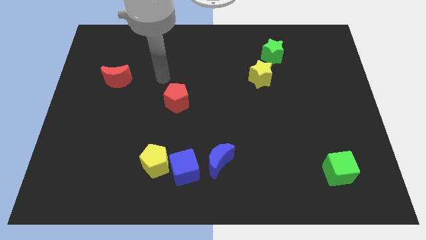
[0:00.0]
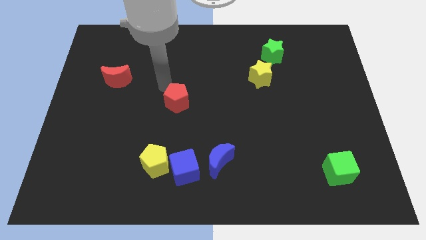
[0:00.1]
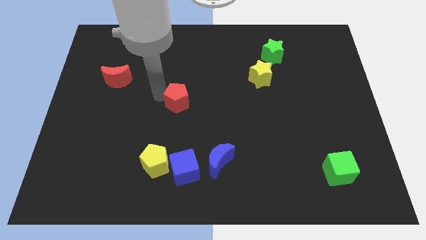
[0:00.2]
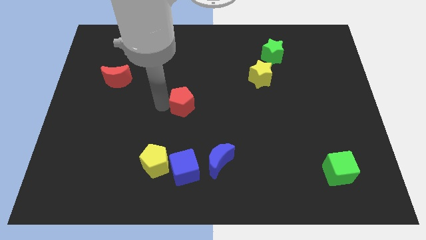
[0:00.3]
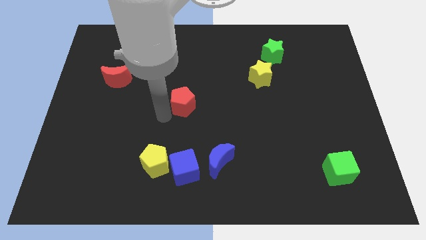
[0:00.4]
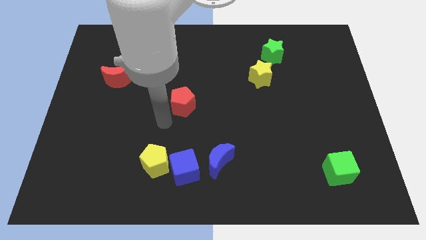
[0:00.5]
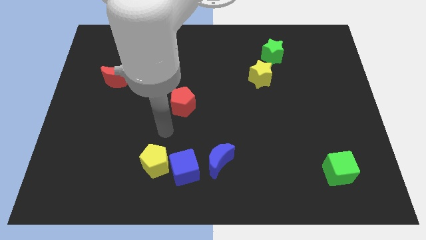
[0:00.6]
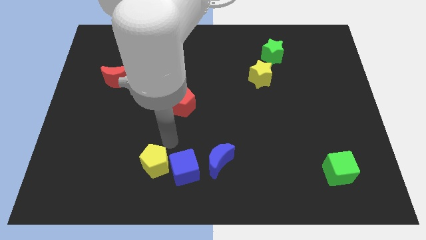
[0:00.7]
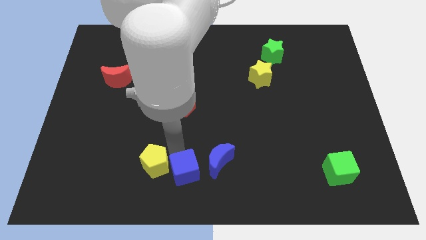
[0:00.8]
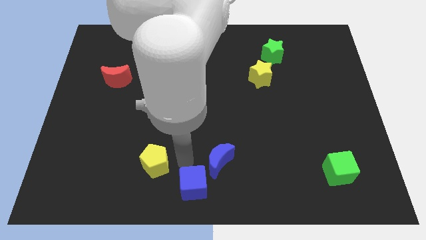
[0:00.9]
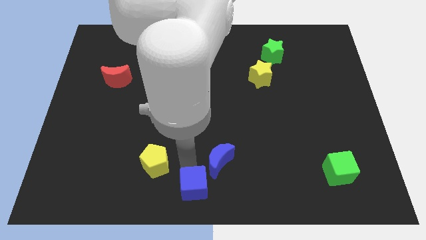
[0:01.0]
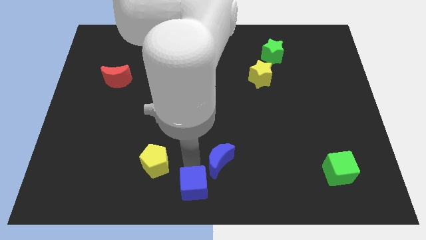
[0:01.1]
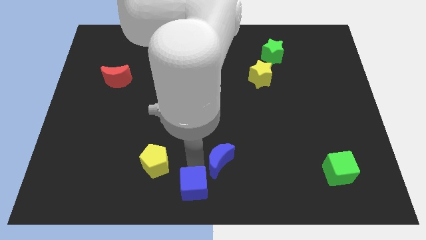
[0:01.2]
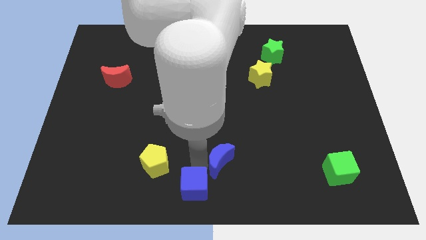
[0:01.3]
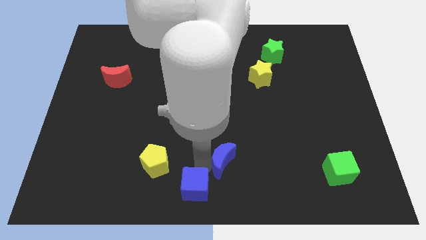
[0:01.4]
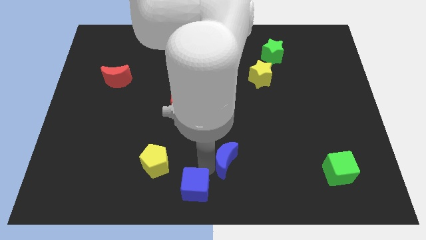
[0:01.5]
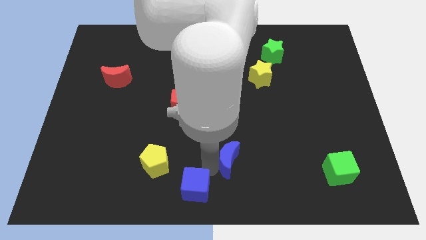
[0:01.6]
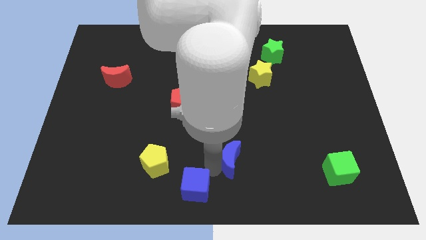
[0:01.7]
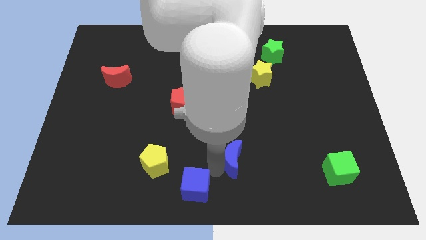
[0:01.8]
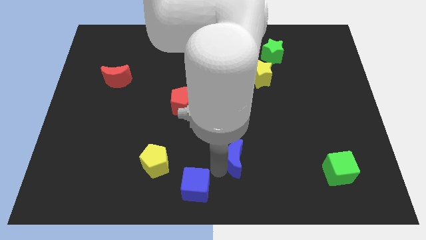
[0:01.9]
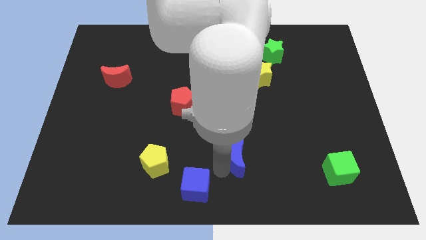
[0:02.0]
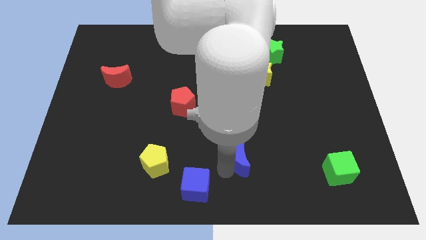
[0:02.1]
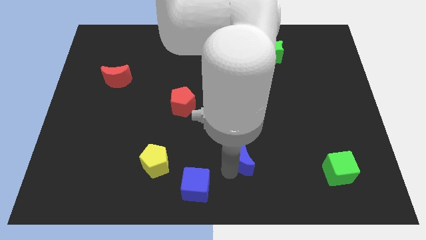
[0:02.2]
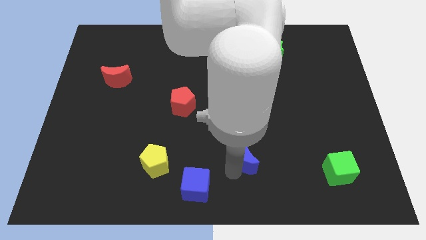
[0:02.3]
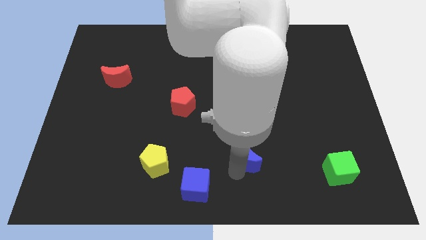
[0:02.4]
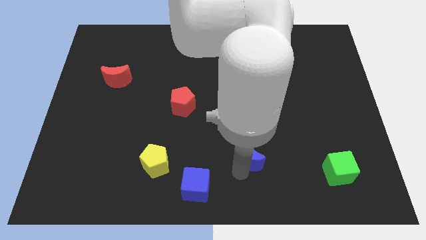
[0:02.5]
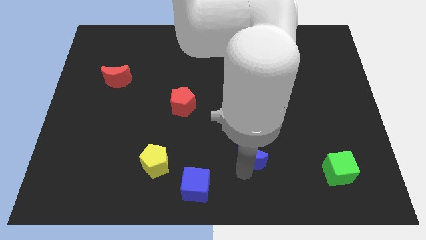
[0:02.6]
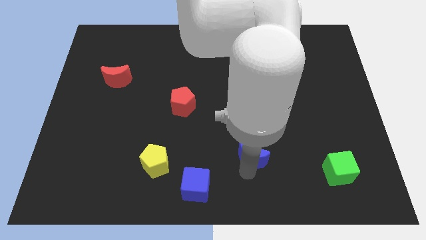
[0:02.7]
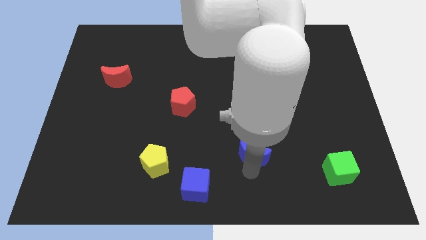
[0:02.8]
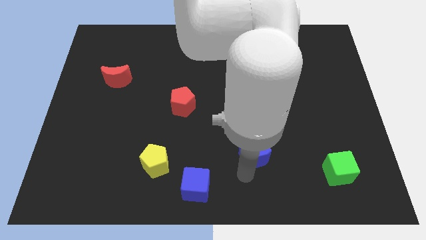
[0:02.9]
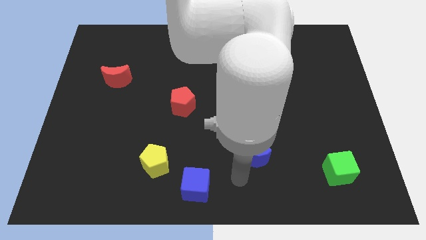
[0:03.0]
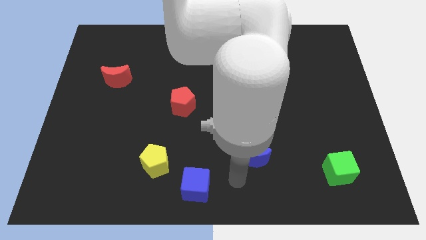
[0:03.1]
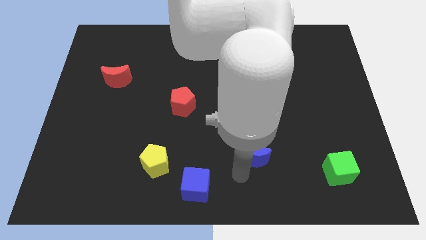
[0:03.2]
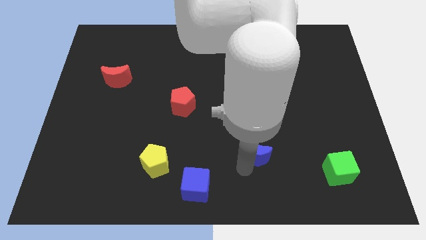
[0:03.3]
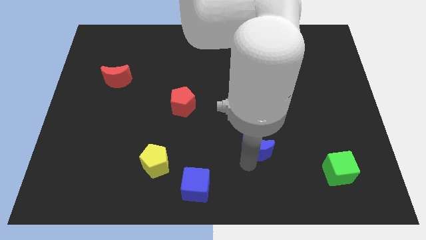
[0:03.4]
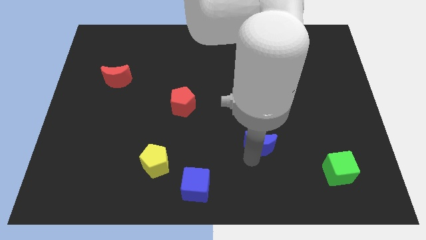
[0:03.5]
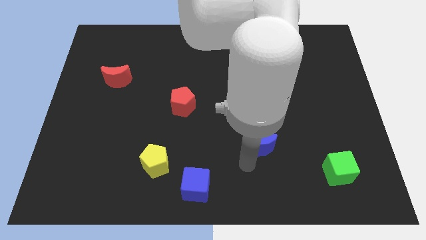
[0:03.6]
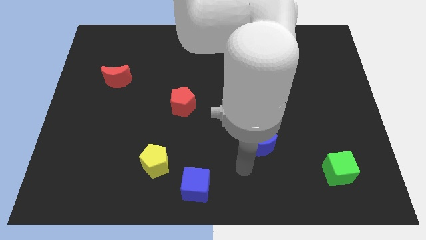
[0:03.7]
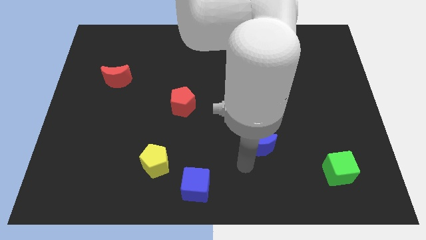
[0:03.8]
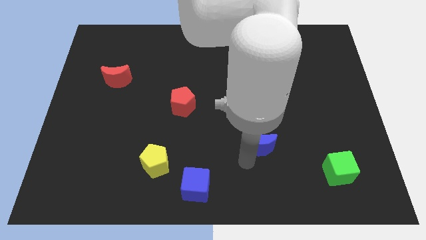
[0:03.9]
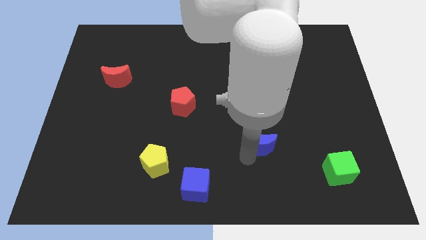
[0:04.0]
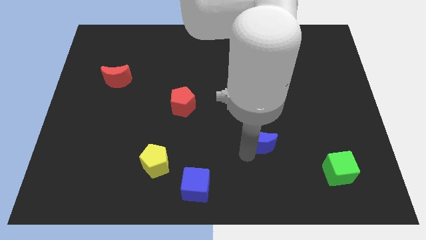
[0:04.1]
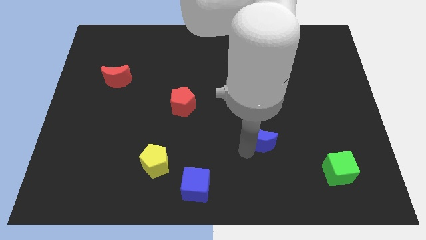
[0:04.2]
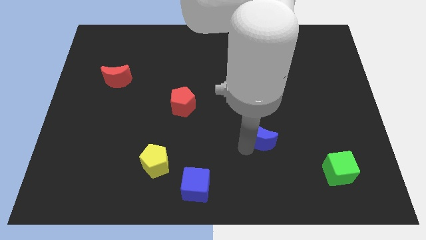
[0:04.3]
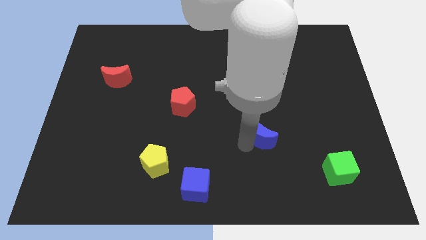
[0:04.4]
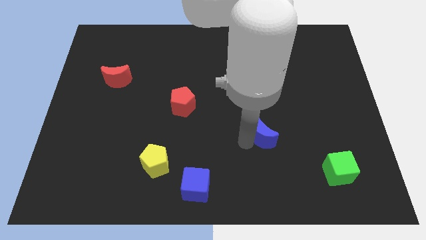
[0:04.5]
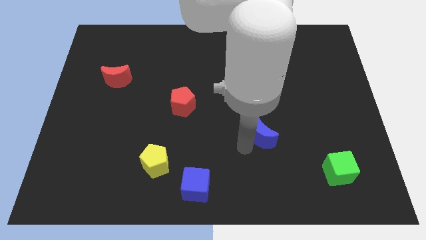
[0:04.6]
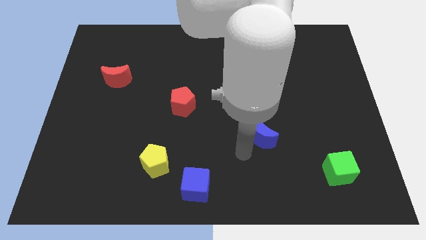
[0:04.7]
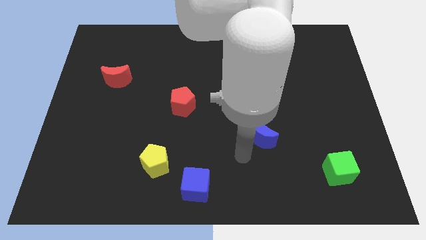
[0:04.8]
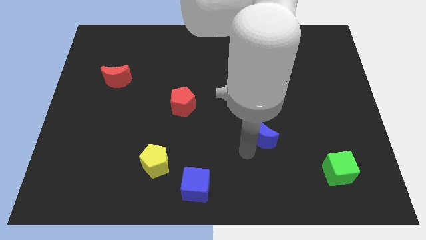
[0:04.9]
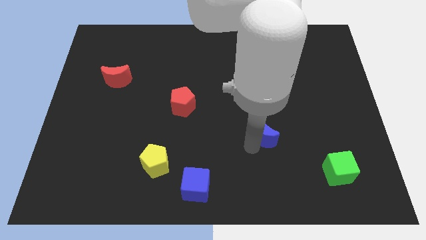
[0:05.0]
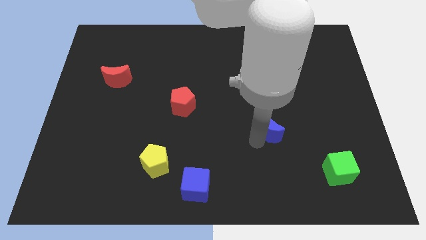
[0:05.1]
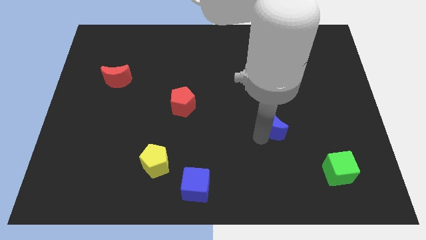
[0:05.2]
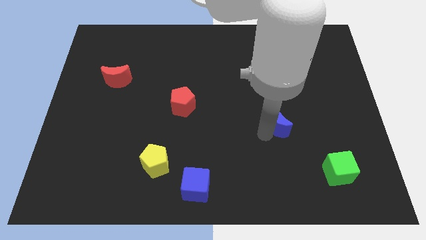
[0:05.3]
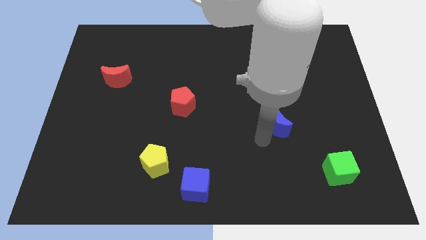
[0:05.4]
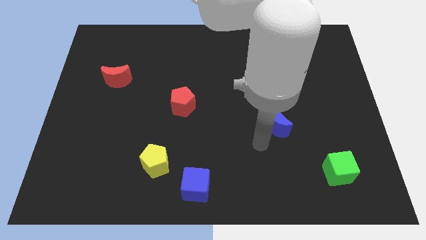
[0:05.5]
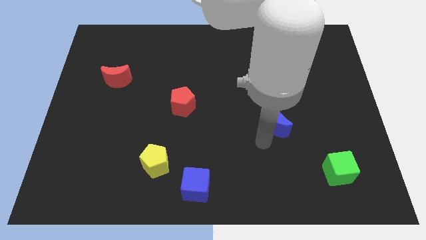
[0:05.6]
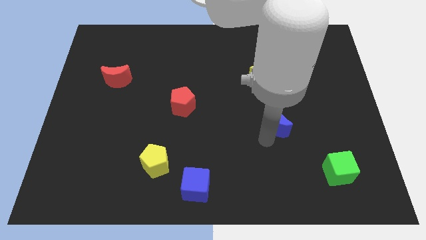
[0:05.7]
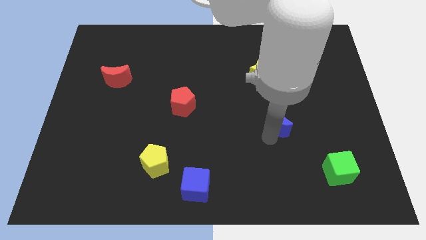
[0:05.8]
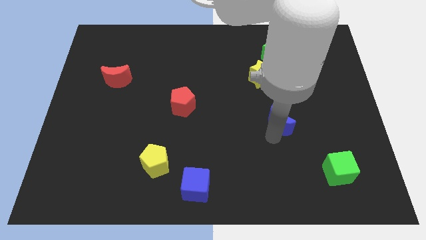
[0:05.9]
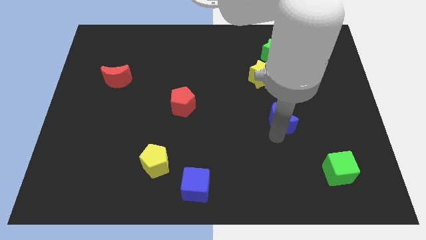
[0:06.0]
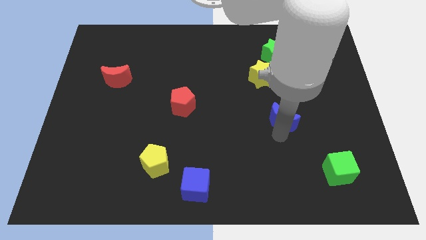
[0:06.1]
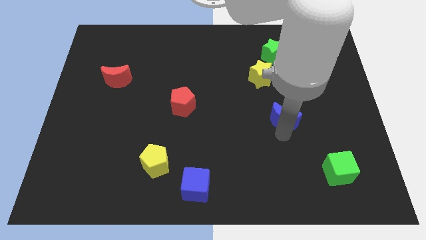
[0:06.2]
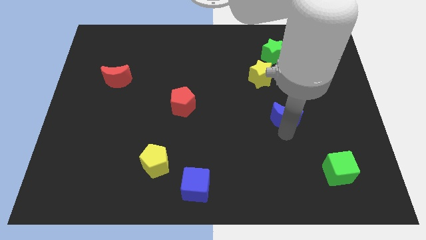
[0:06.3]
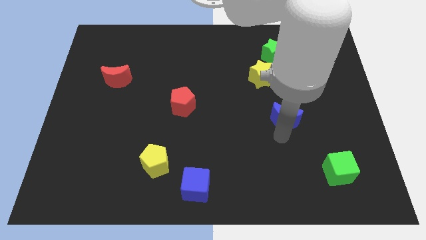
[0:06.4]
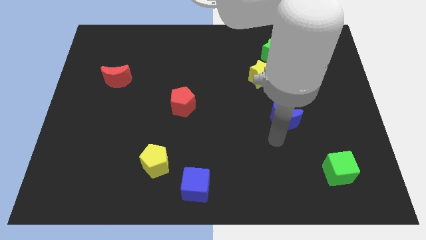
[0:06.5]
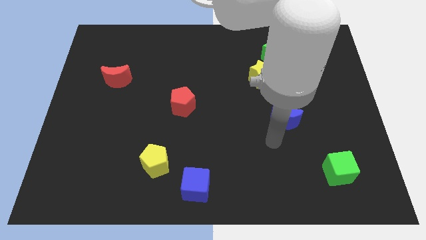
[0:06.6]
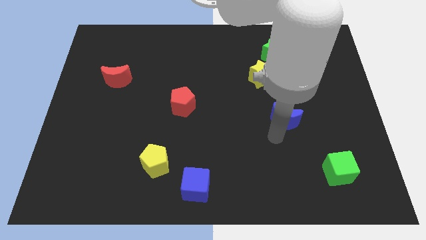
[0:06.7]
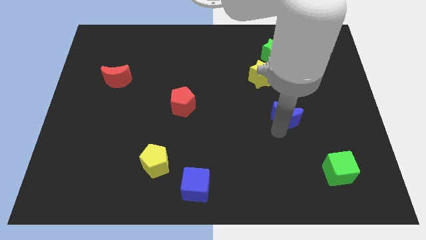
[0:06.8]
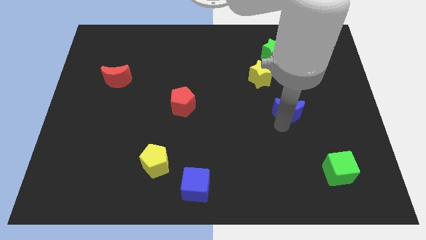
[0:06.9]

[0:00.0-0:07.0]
push the blue moon diagonally up and to the right

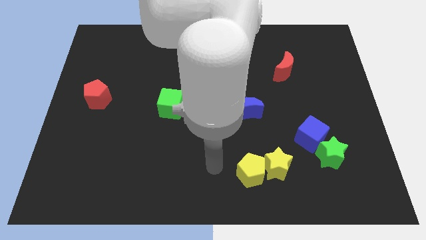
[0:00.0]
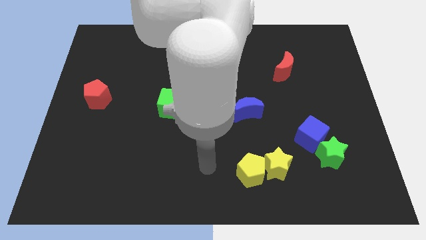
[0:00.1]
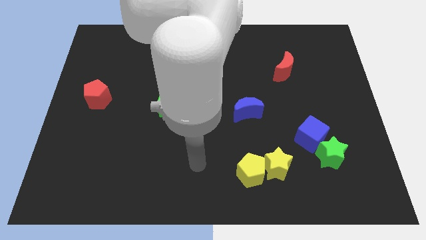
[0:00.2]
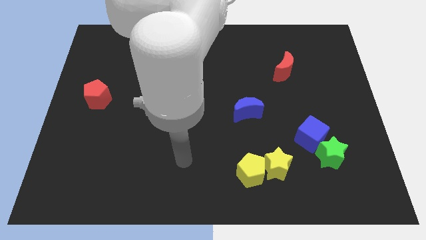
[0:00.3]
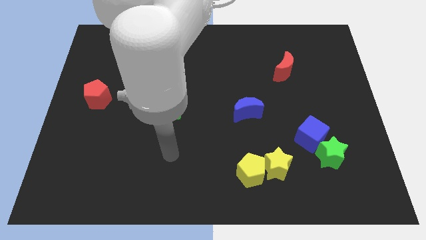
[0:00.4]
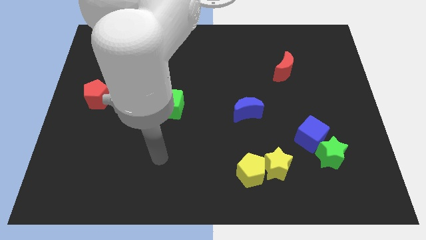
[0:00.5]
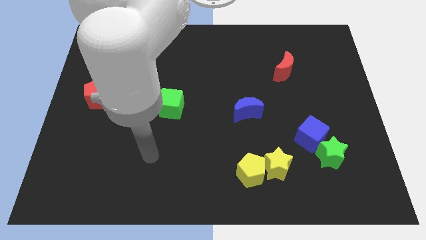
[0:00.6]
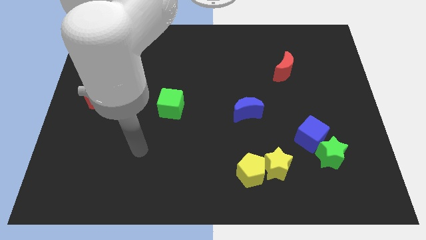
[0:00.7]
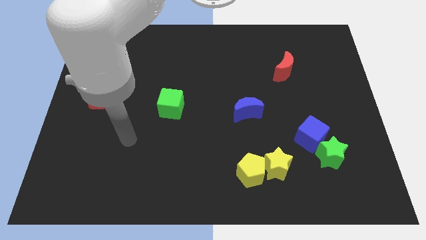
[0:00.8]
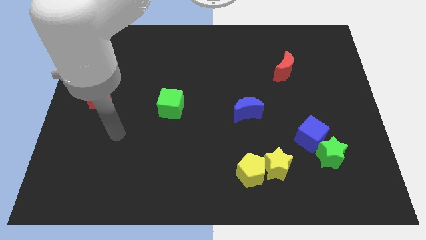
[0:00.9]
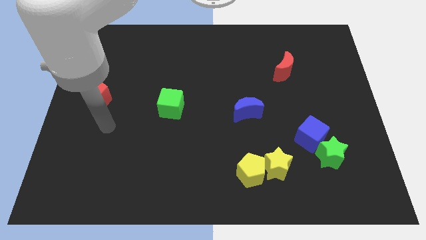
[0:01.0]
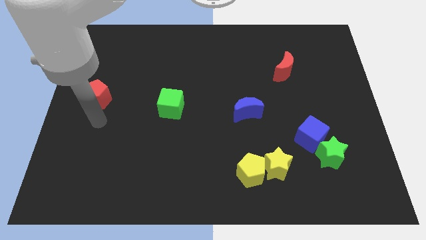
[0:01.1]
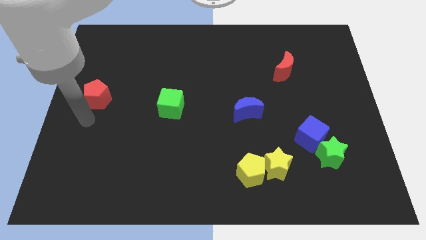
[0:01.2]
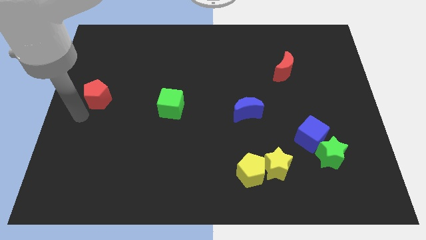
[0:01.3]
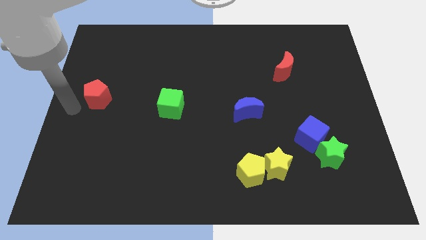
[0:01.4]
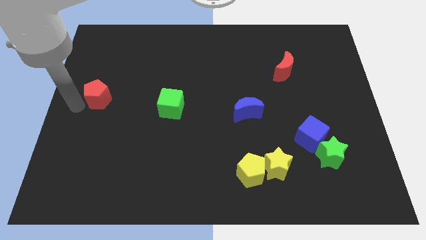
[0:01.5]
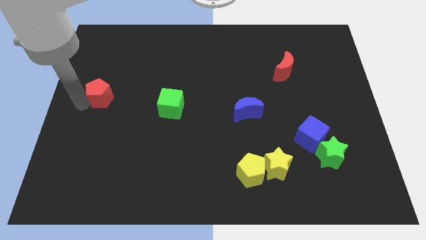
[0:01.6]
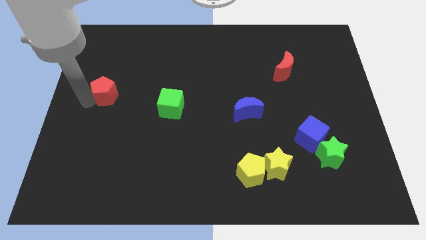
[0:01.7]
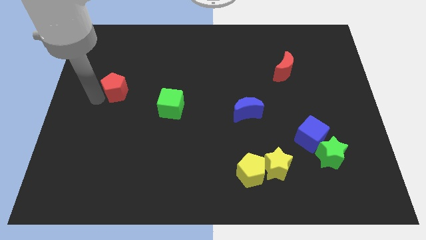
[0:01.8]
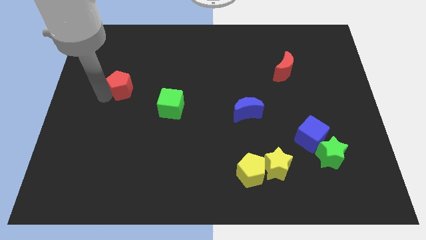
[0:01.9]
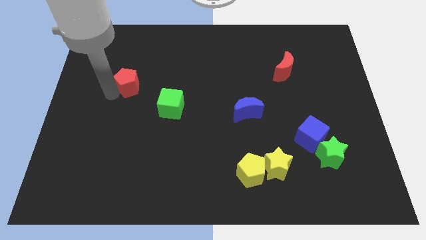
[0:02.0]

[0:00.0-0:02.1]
slightly move the red pentagon upwards and to the right
